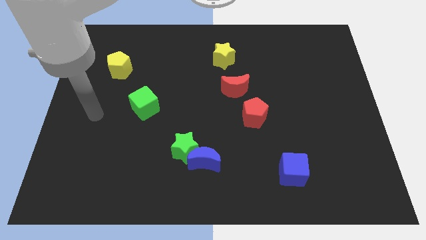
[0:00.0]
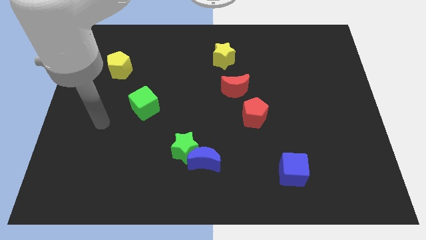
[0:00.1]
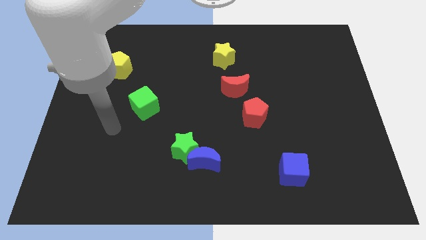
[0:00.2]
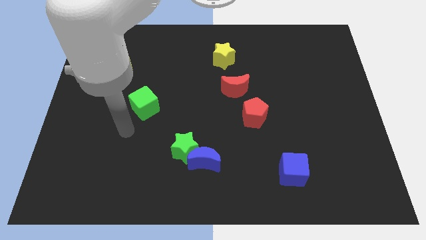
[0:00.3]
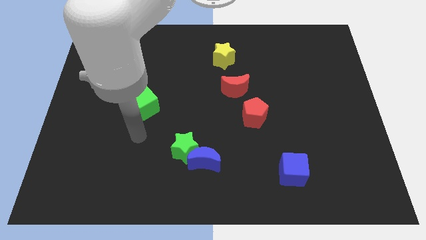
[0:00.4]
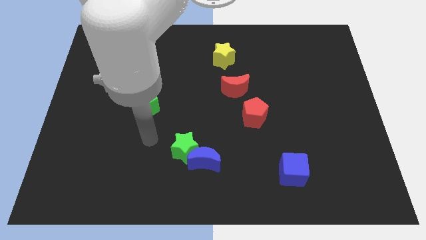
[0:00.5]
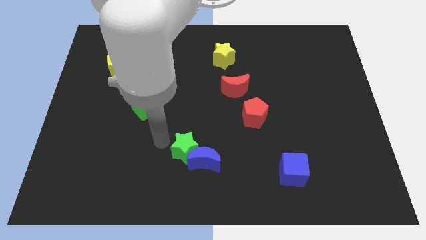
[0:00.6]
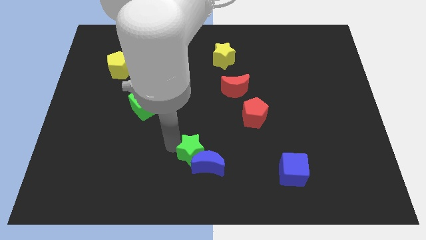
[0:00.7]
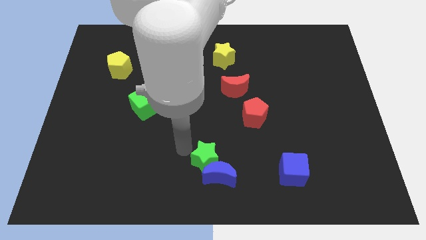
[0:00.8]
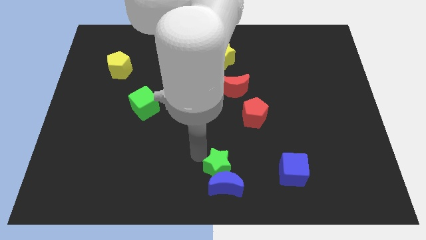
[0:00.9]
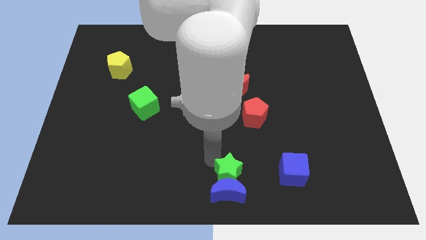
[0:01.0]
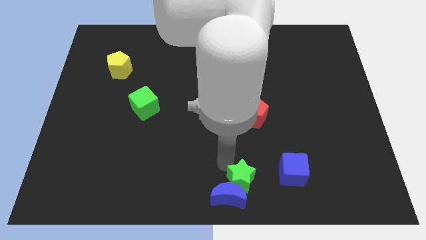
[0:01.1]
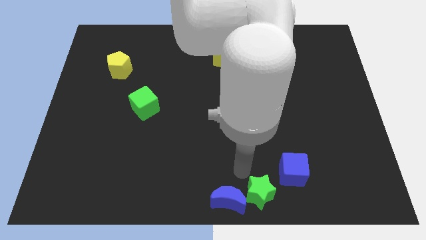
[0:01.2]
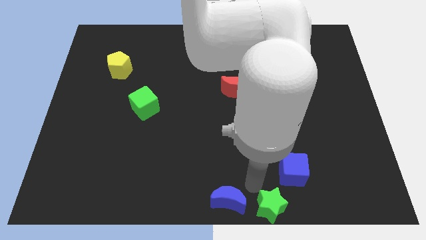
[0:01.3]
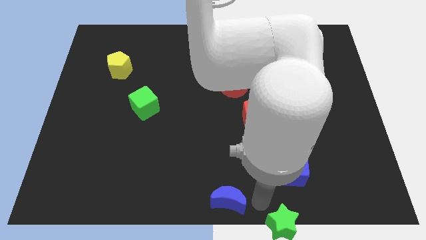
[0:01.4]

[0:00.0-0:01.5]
pull the blue moon apart from the green star

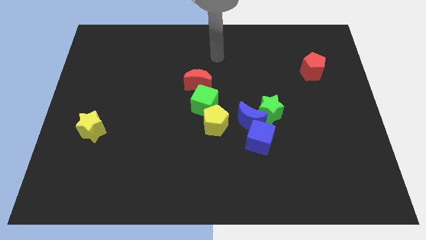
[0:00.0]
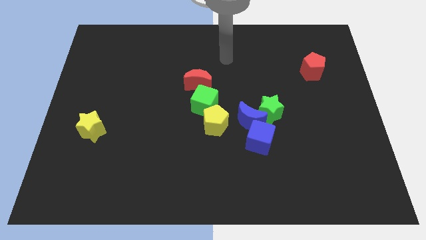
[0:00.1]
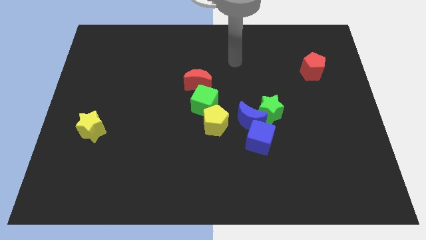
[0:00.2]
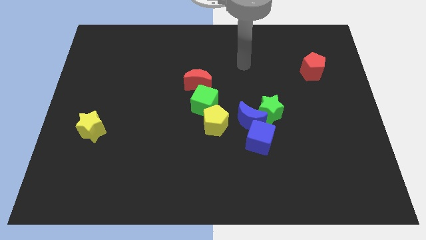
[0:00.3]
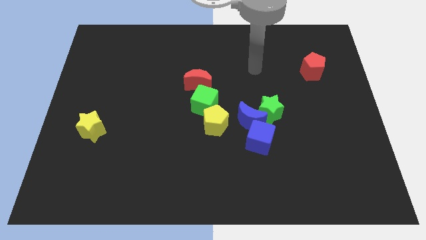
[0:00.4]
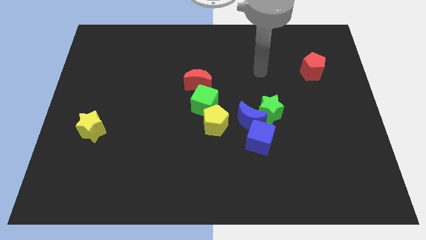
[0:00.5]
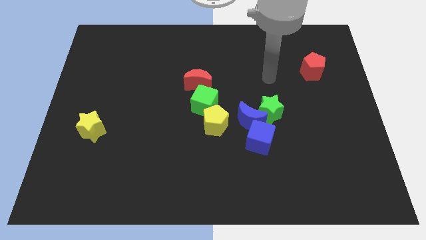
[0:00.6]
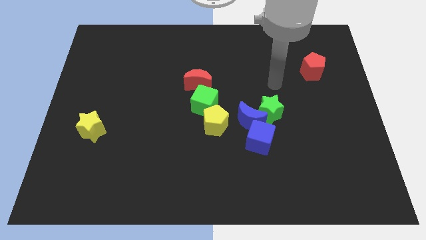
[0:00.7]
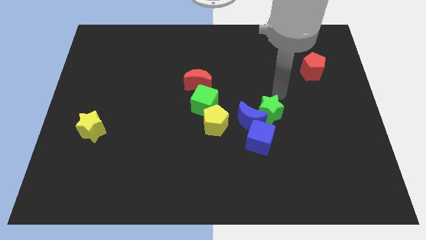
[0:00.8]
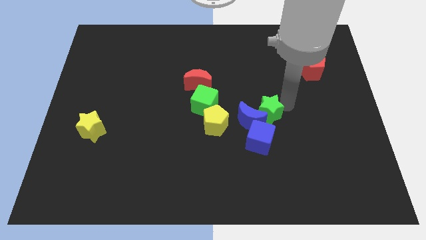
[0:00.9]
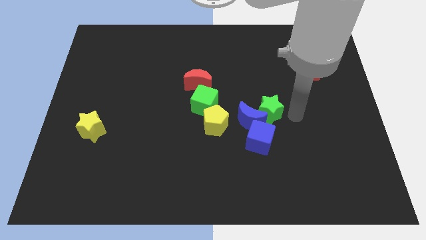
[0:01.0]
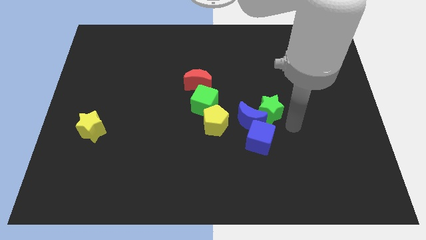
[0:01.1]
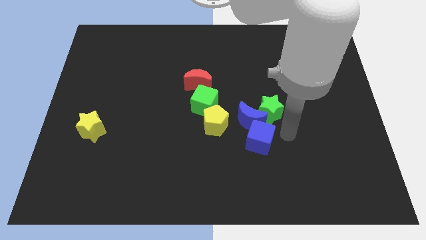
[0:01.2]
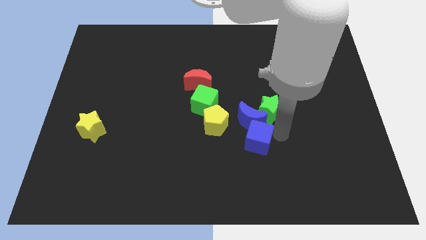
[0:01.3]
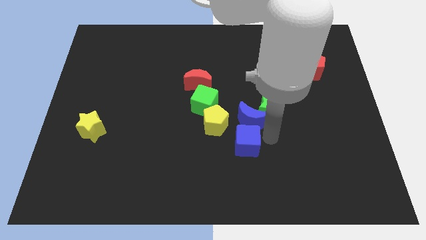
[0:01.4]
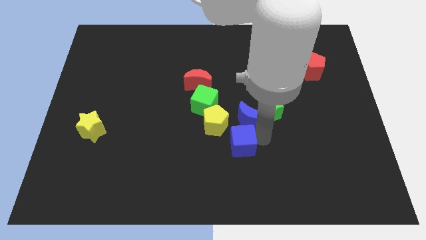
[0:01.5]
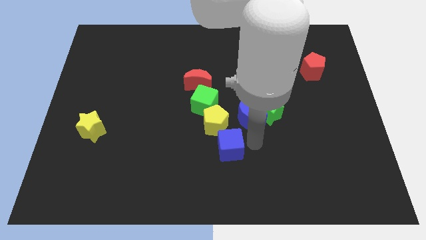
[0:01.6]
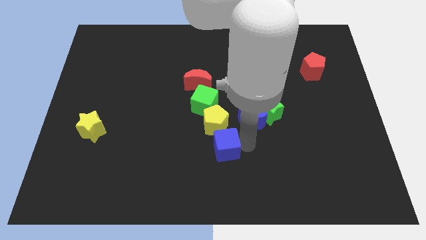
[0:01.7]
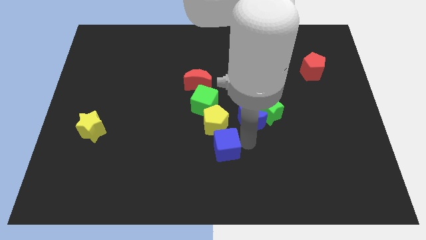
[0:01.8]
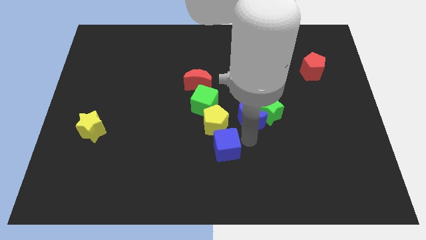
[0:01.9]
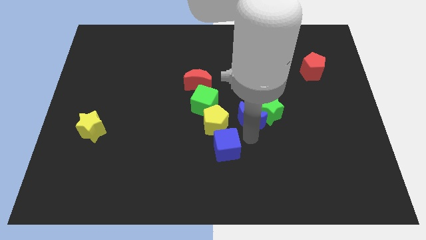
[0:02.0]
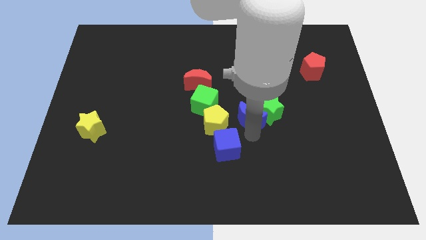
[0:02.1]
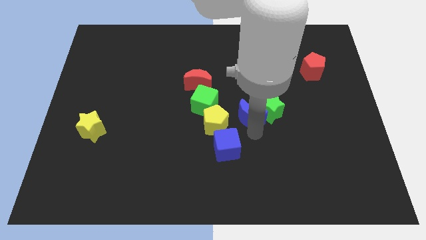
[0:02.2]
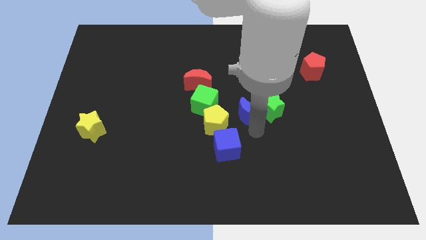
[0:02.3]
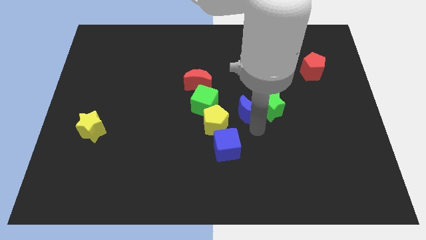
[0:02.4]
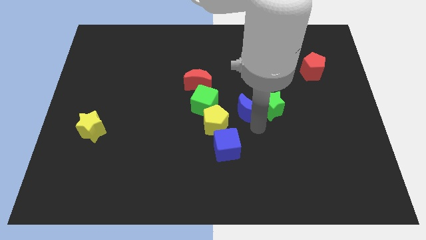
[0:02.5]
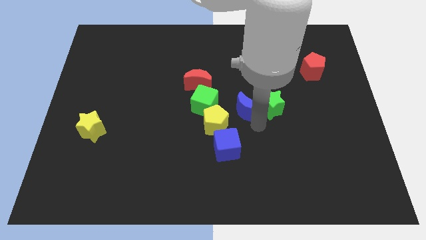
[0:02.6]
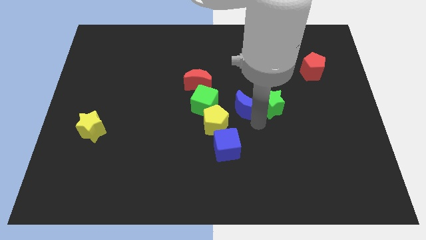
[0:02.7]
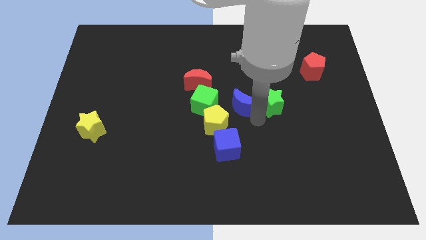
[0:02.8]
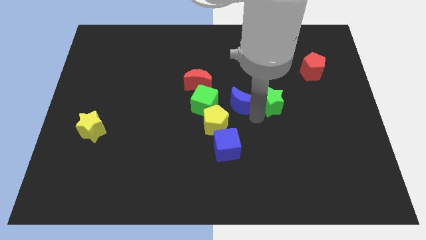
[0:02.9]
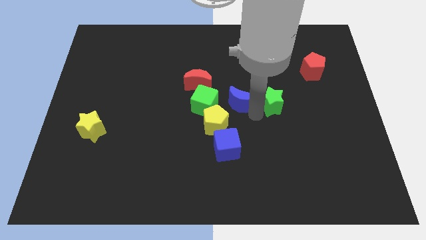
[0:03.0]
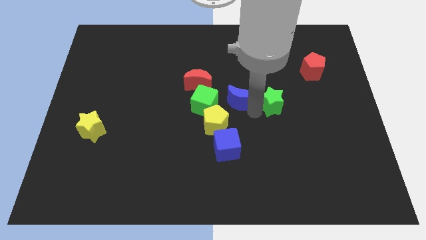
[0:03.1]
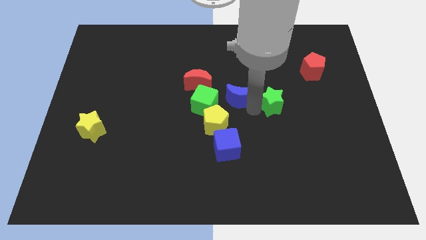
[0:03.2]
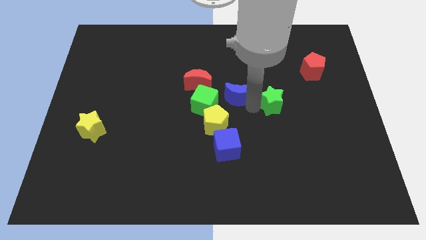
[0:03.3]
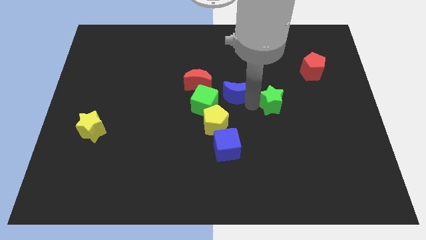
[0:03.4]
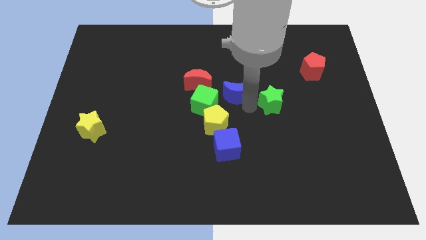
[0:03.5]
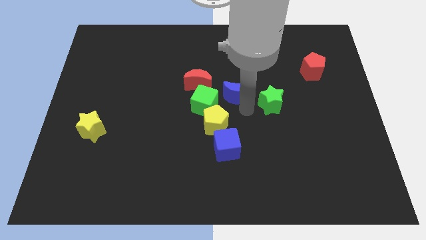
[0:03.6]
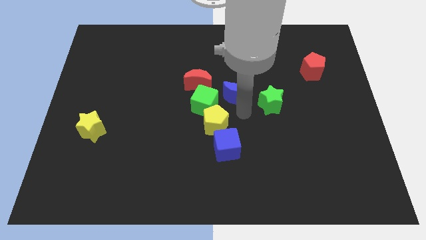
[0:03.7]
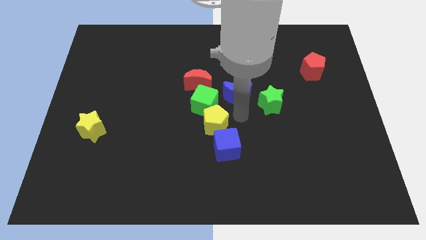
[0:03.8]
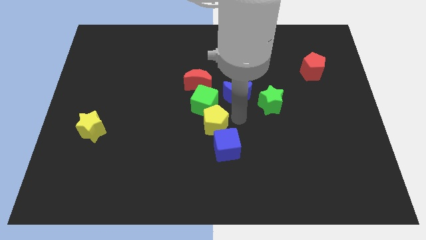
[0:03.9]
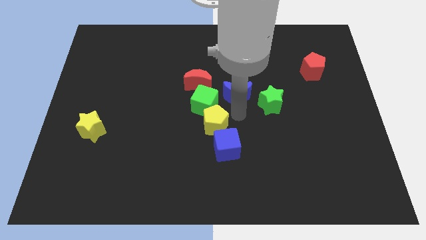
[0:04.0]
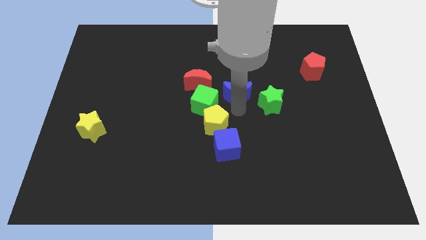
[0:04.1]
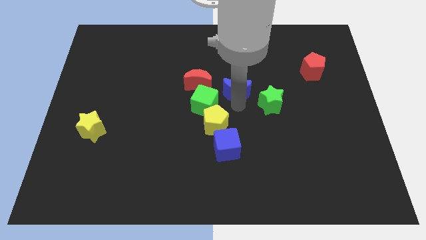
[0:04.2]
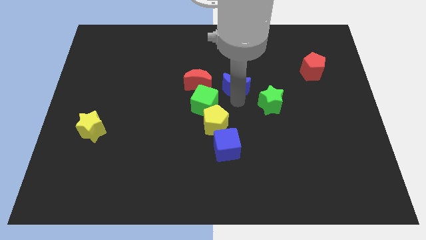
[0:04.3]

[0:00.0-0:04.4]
pull the blue moon apart from the group

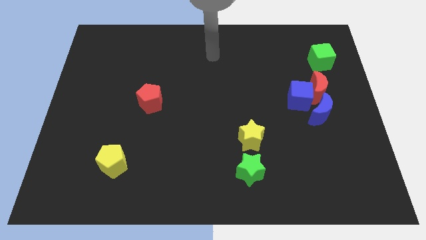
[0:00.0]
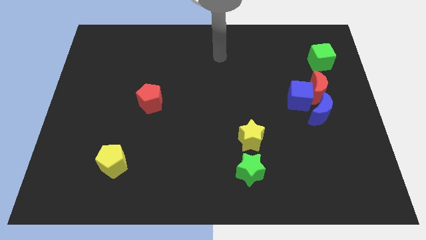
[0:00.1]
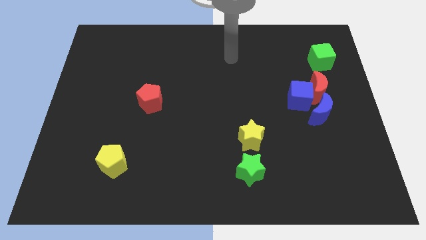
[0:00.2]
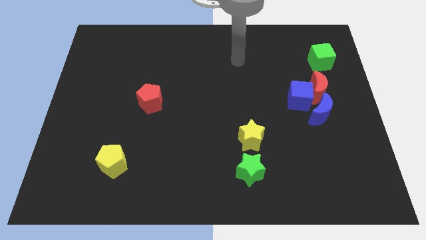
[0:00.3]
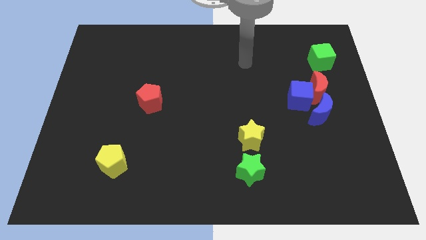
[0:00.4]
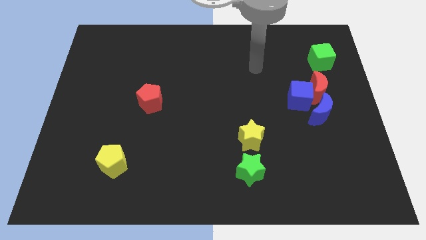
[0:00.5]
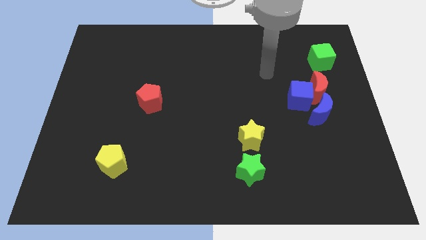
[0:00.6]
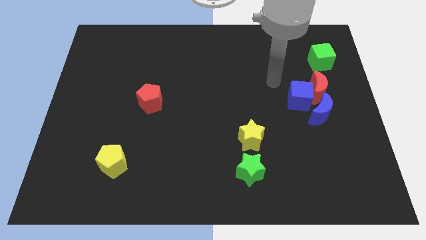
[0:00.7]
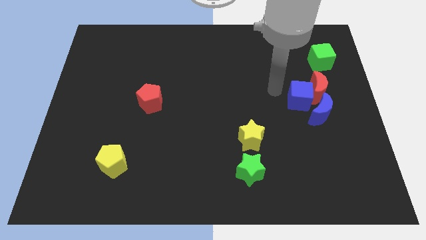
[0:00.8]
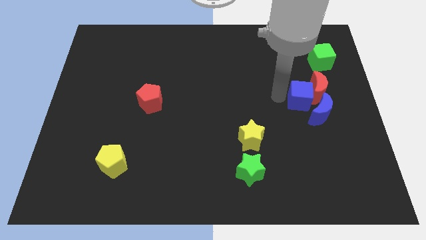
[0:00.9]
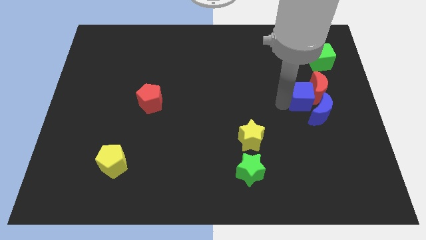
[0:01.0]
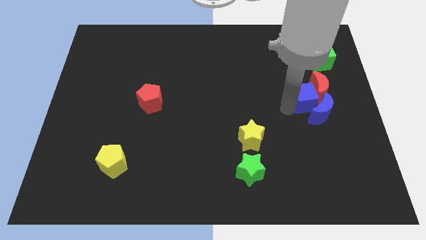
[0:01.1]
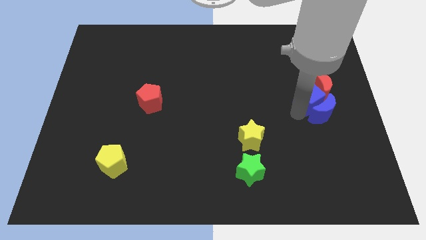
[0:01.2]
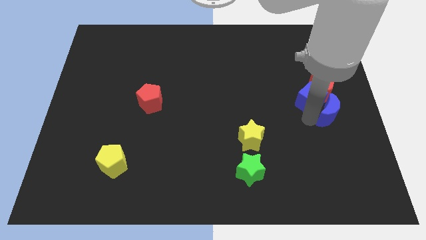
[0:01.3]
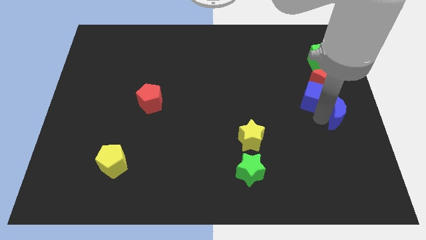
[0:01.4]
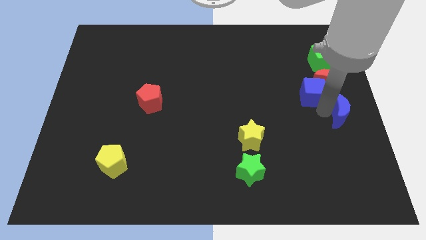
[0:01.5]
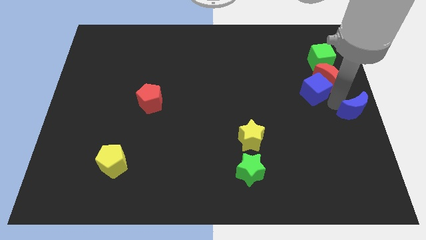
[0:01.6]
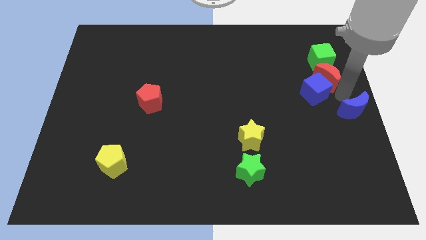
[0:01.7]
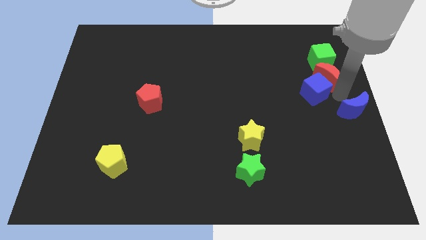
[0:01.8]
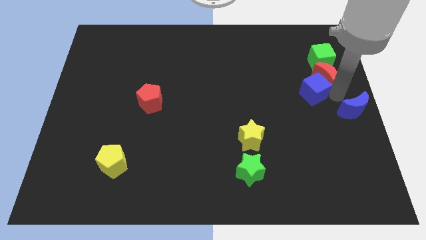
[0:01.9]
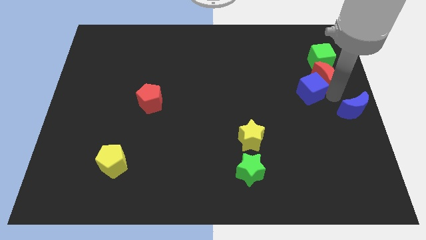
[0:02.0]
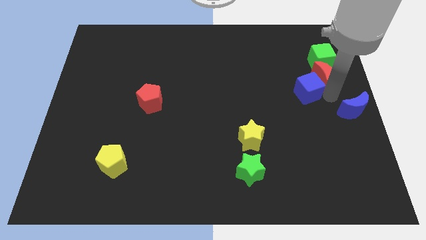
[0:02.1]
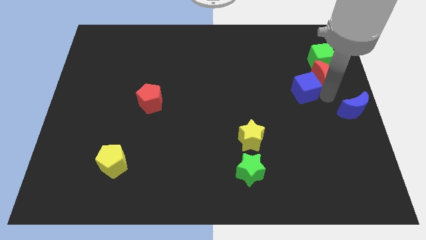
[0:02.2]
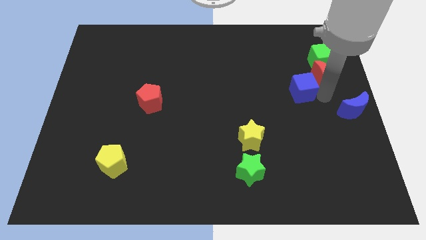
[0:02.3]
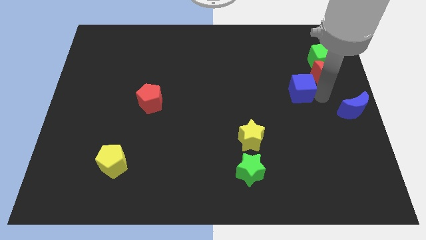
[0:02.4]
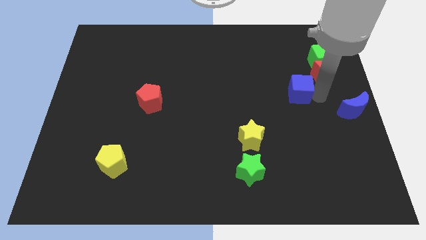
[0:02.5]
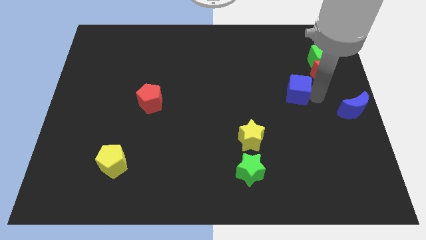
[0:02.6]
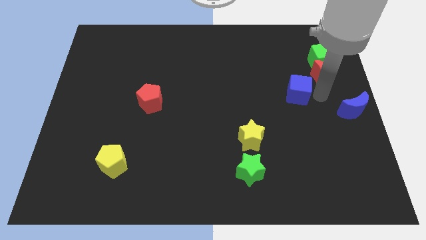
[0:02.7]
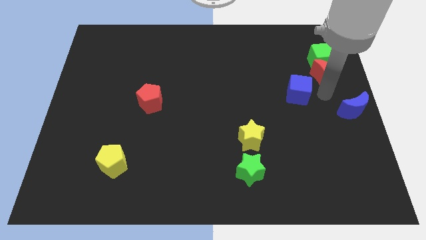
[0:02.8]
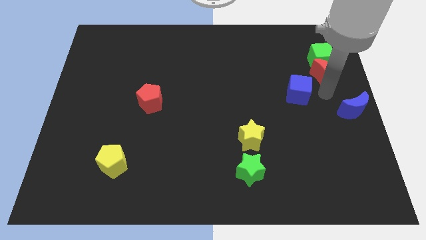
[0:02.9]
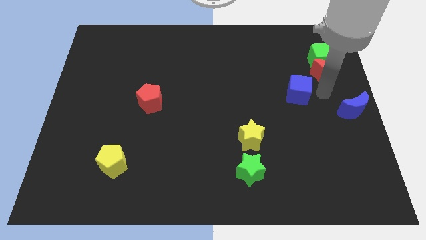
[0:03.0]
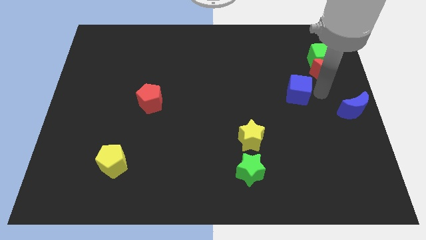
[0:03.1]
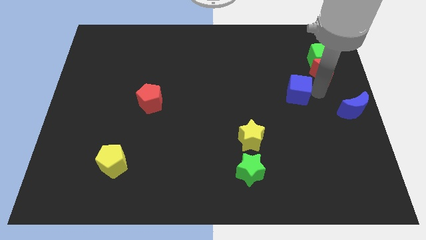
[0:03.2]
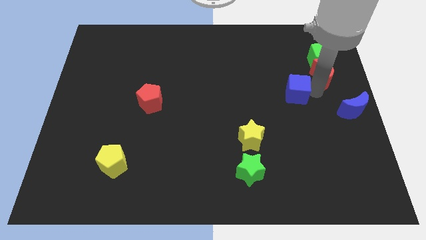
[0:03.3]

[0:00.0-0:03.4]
pull the blue cube apart from the red moon and blue moon
